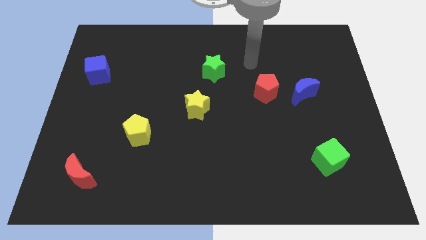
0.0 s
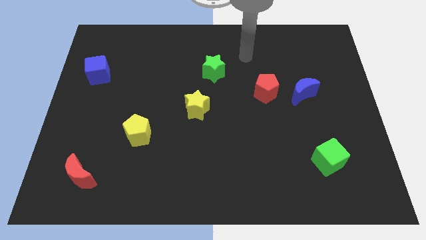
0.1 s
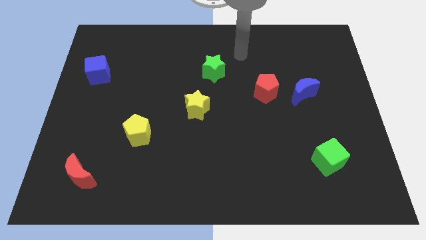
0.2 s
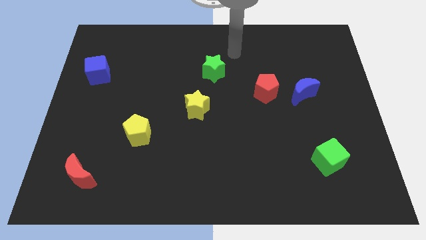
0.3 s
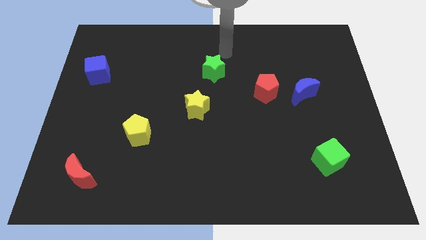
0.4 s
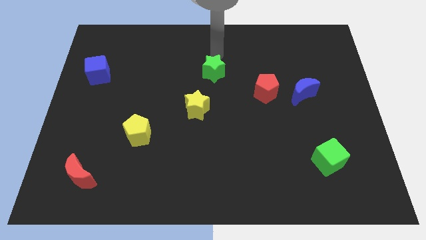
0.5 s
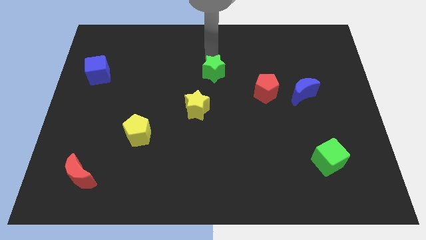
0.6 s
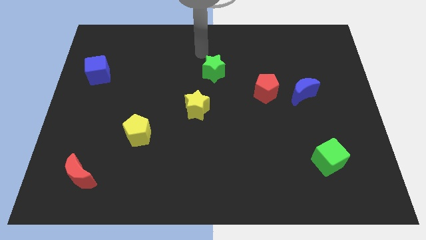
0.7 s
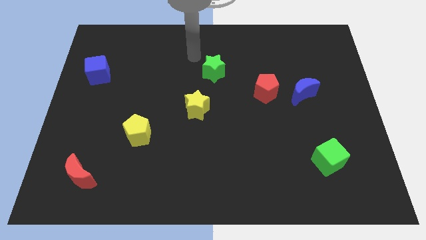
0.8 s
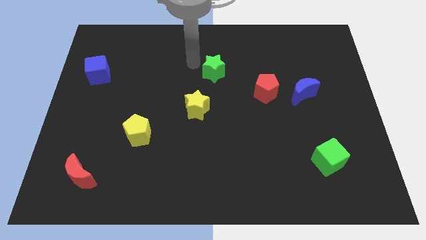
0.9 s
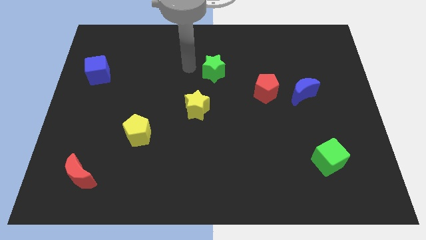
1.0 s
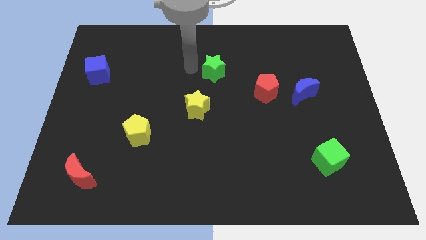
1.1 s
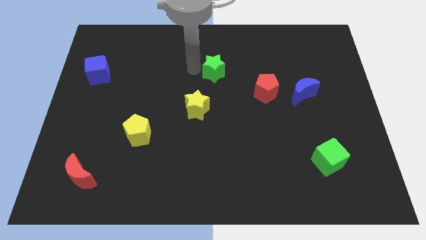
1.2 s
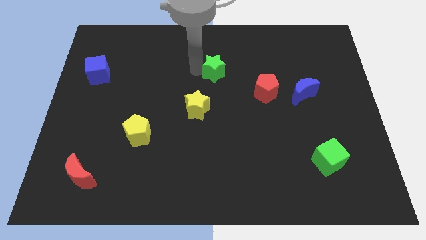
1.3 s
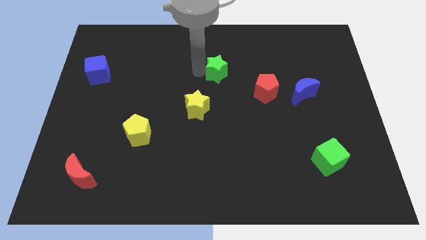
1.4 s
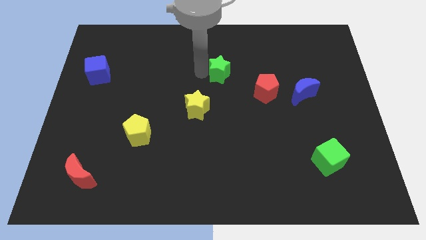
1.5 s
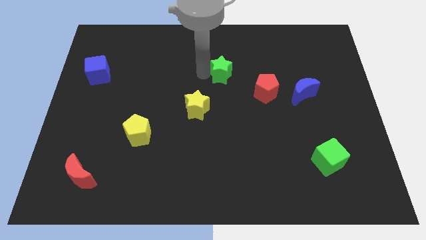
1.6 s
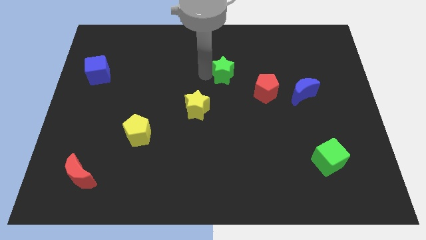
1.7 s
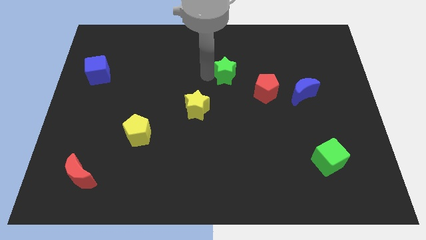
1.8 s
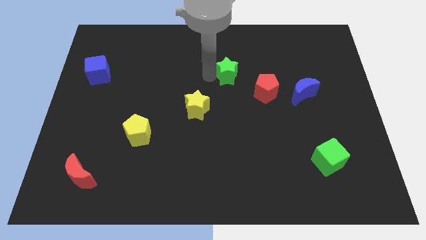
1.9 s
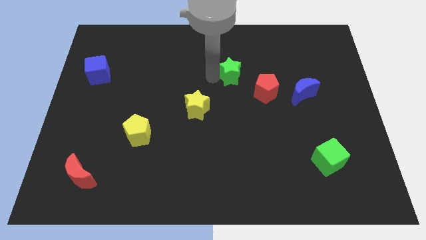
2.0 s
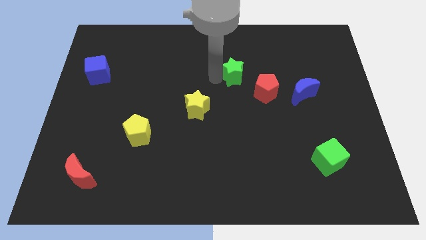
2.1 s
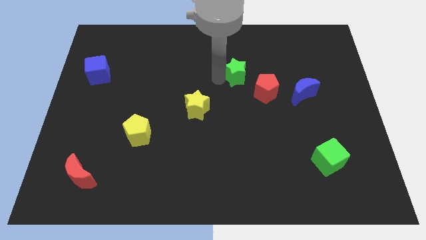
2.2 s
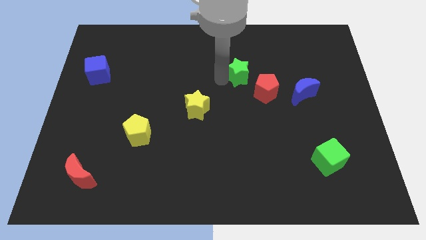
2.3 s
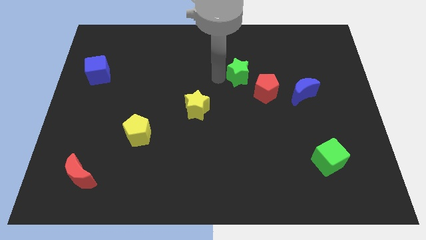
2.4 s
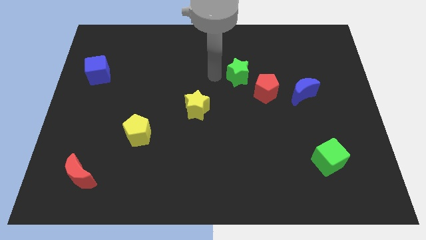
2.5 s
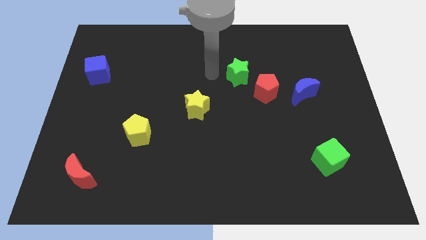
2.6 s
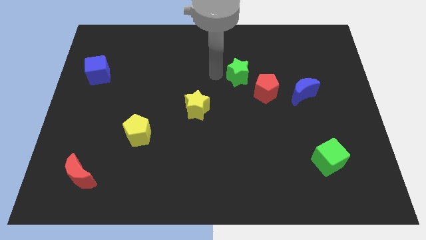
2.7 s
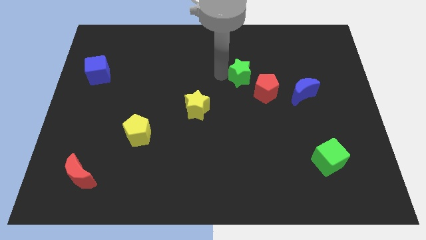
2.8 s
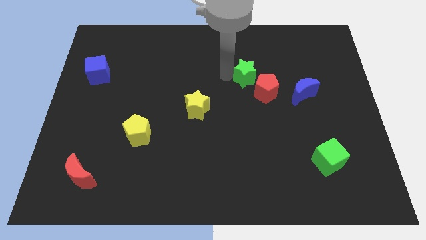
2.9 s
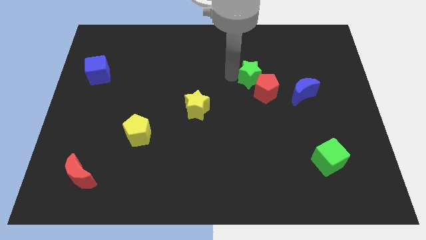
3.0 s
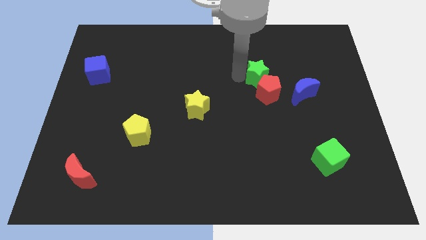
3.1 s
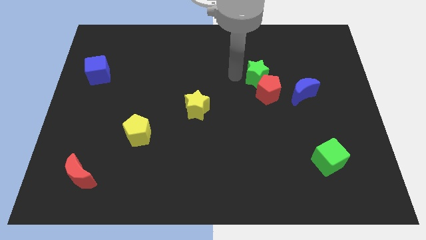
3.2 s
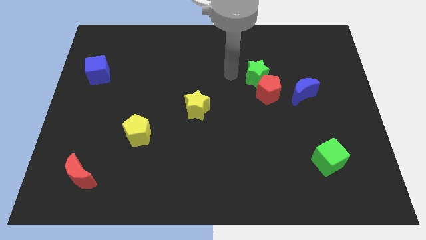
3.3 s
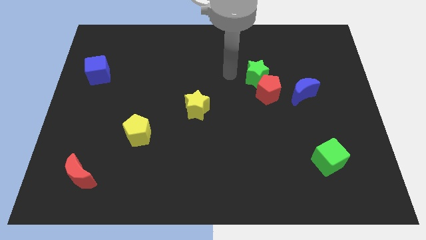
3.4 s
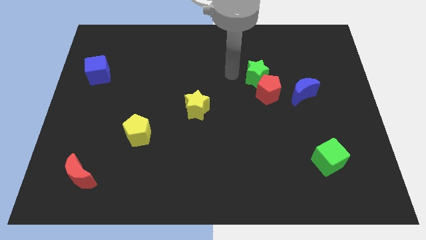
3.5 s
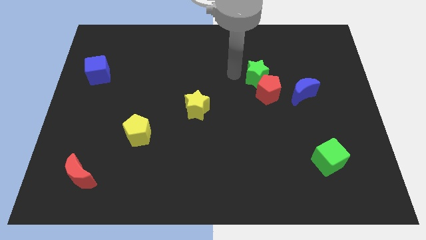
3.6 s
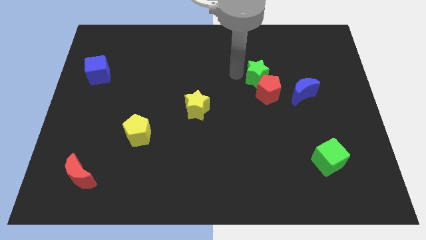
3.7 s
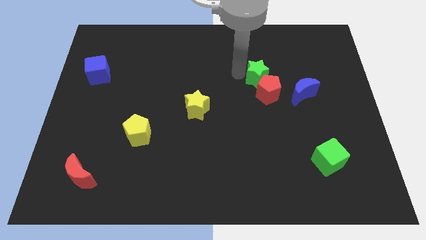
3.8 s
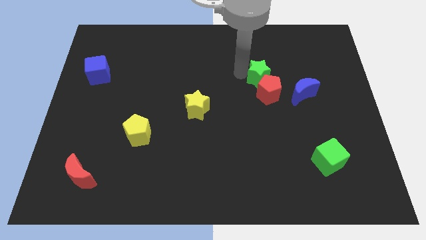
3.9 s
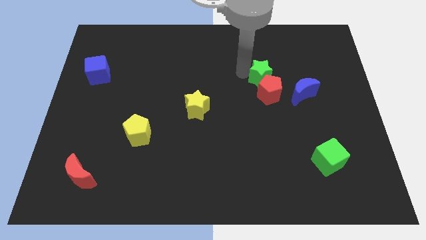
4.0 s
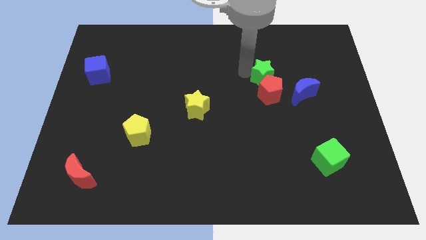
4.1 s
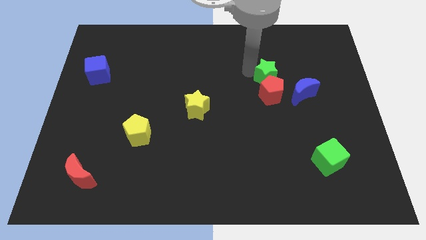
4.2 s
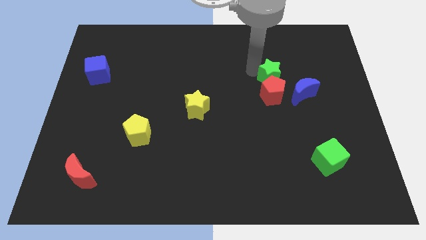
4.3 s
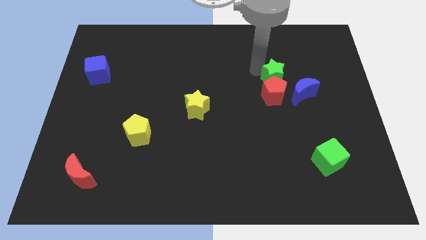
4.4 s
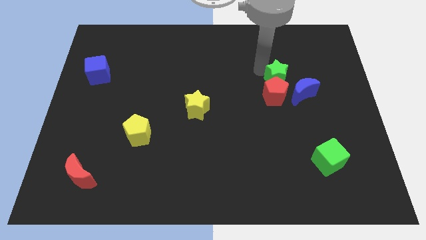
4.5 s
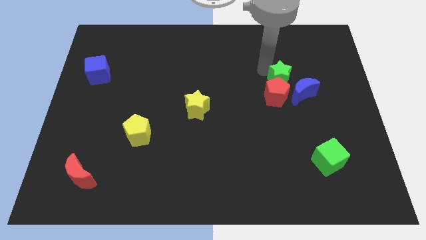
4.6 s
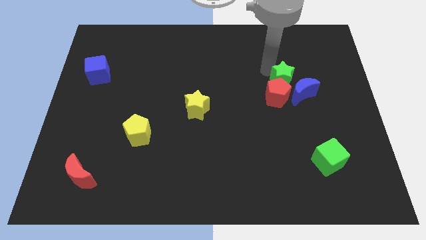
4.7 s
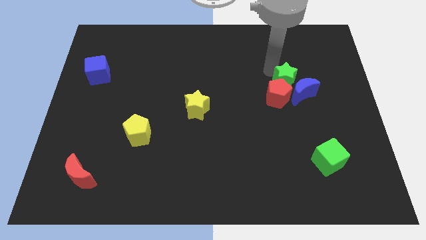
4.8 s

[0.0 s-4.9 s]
put the green star to the blue moon

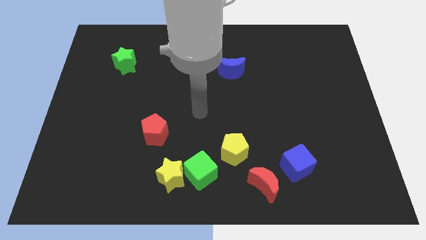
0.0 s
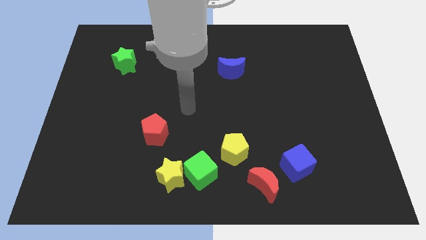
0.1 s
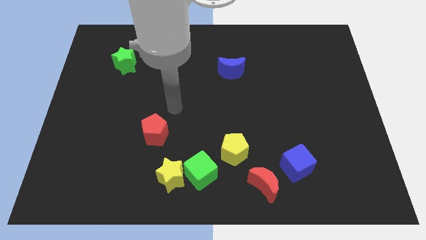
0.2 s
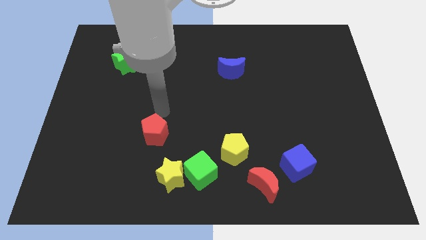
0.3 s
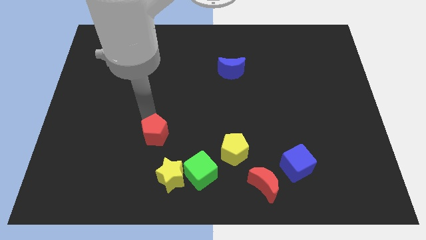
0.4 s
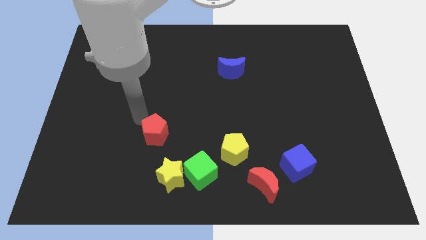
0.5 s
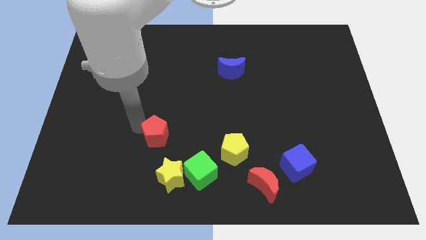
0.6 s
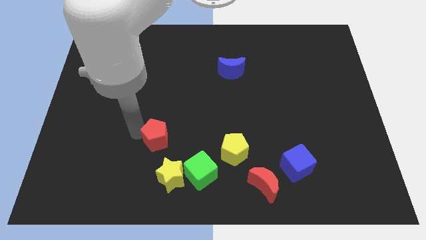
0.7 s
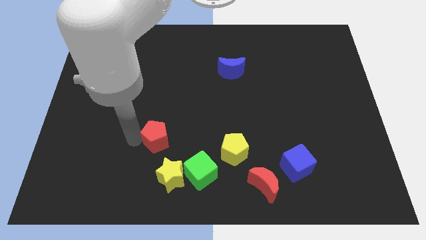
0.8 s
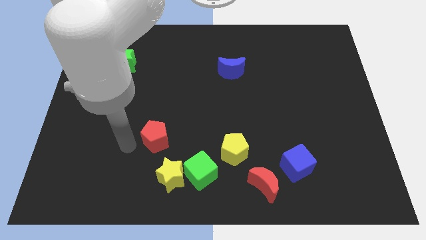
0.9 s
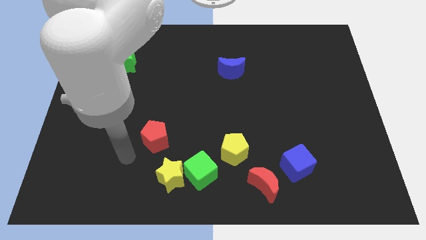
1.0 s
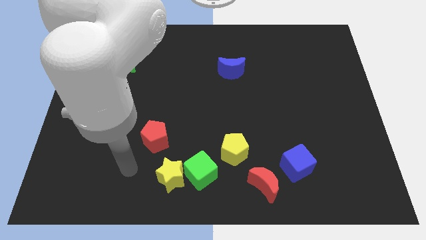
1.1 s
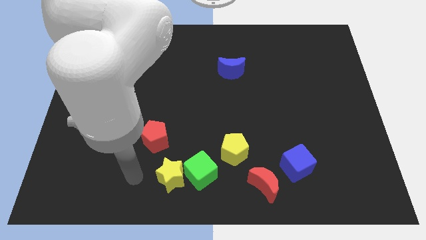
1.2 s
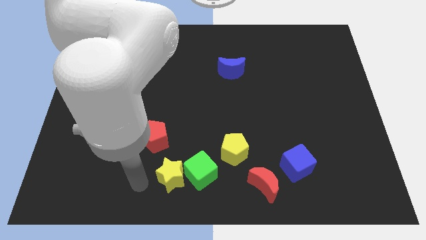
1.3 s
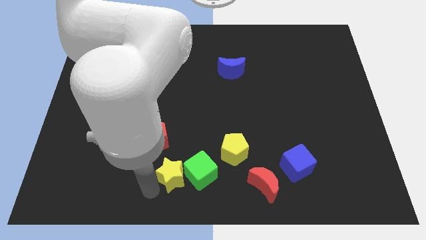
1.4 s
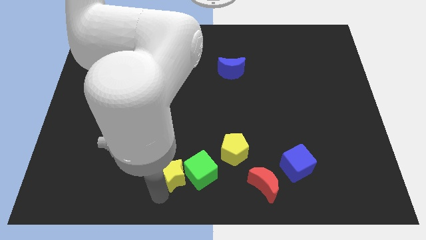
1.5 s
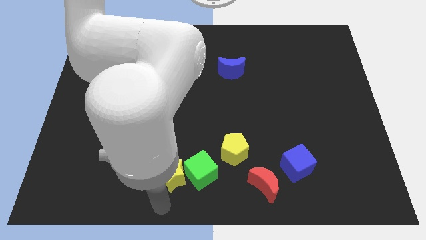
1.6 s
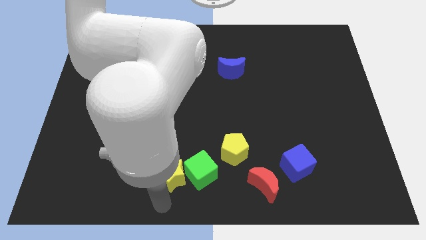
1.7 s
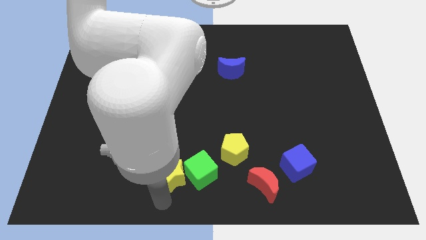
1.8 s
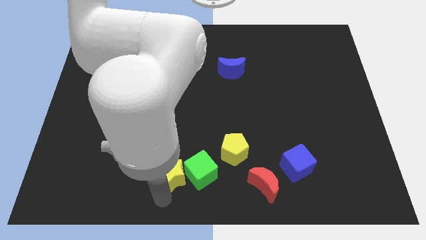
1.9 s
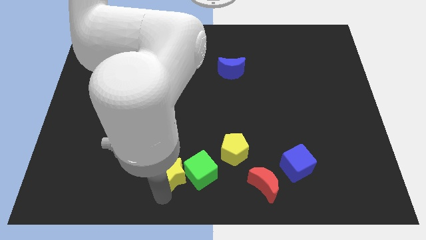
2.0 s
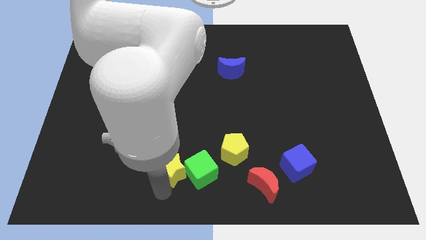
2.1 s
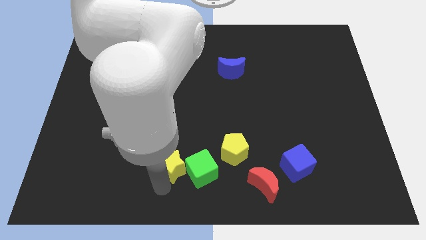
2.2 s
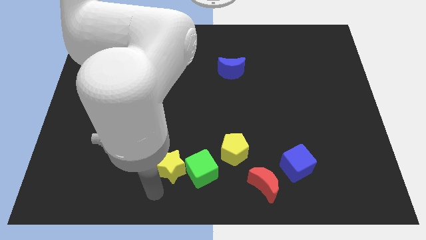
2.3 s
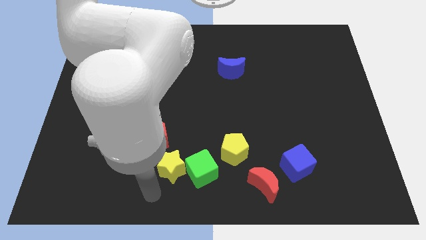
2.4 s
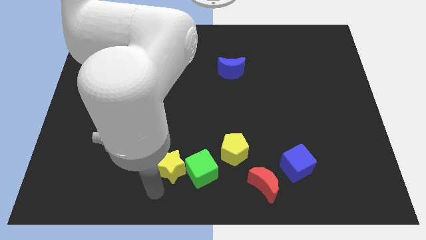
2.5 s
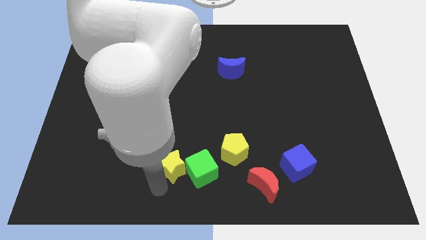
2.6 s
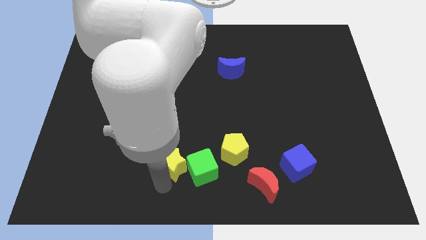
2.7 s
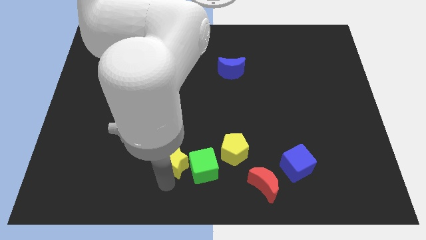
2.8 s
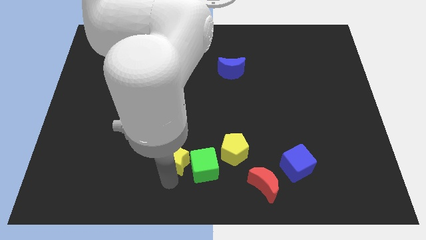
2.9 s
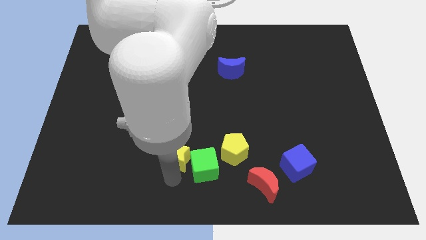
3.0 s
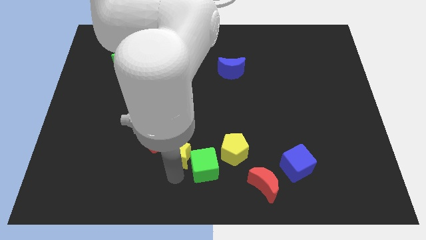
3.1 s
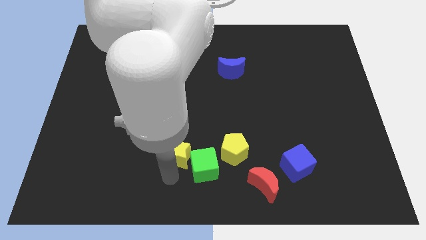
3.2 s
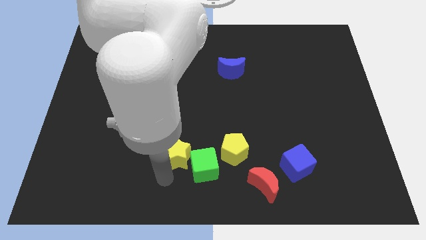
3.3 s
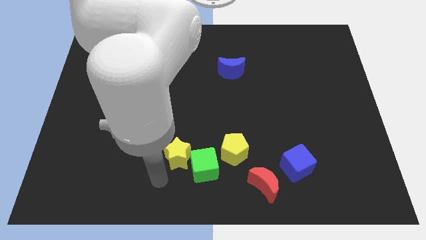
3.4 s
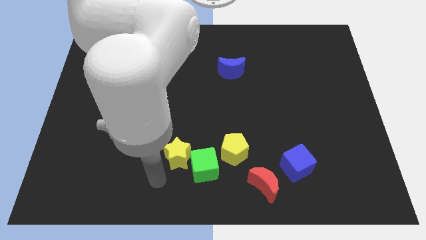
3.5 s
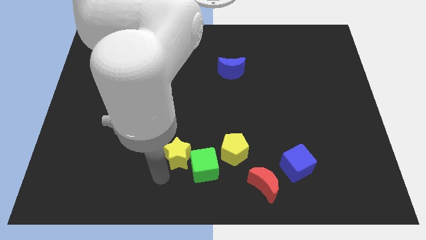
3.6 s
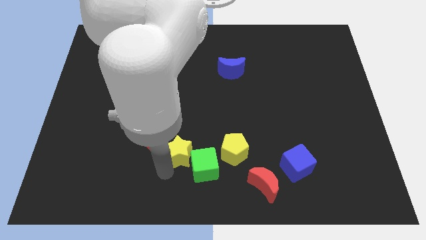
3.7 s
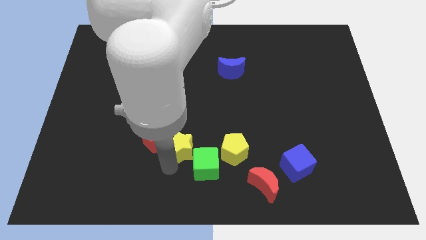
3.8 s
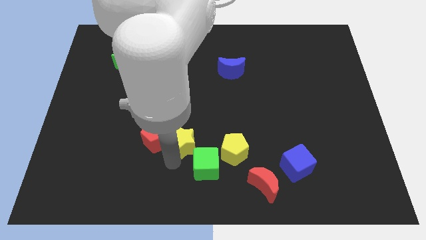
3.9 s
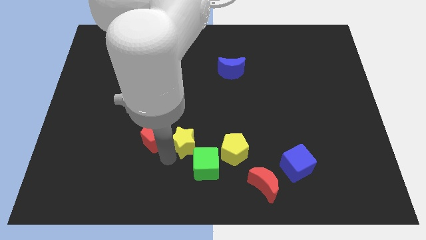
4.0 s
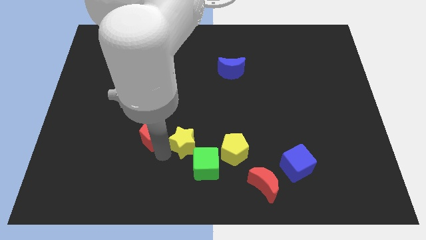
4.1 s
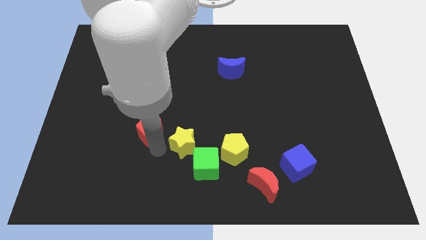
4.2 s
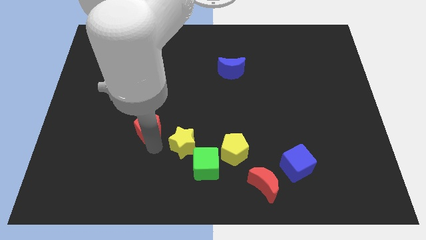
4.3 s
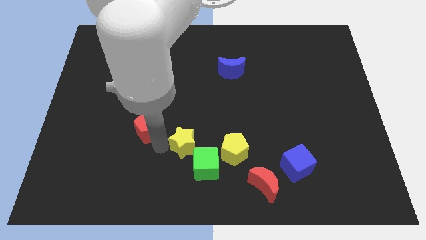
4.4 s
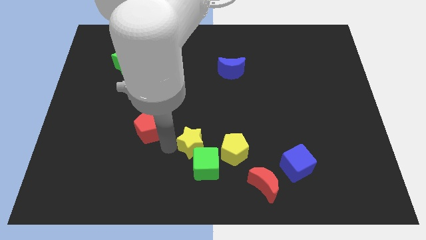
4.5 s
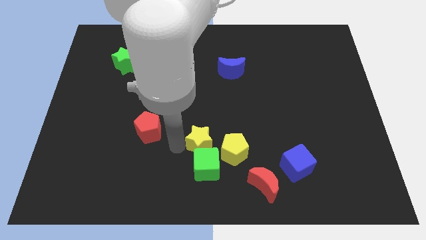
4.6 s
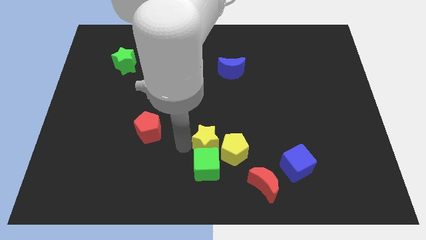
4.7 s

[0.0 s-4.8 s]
move the yellow star towards the yellow pentagon
